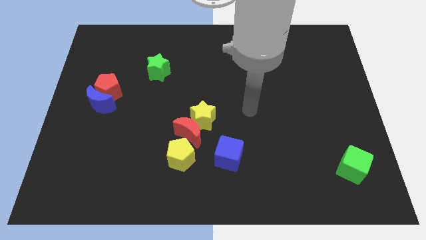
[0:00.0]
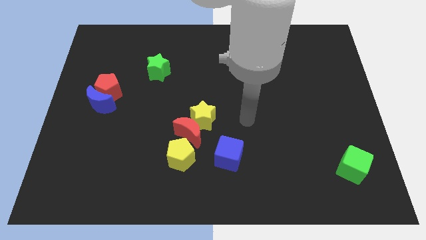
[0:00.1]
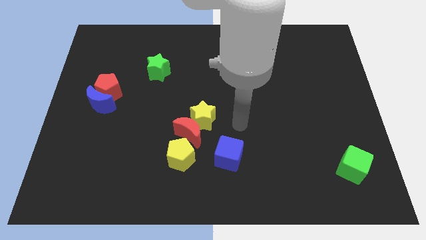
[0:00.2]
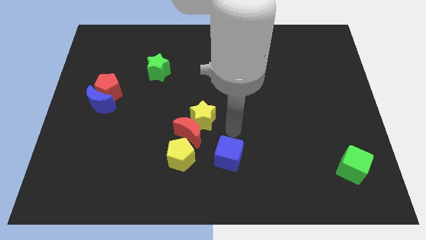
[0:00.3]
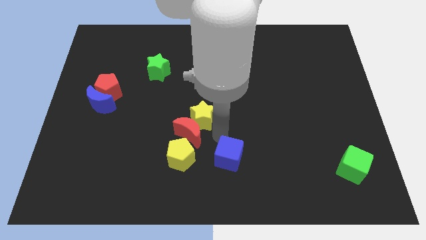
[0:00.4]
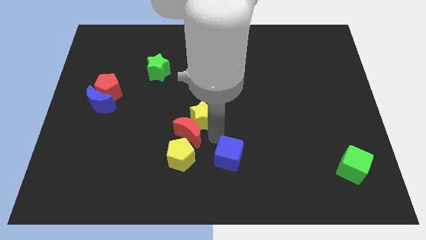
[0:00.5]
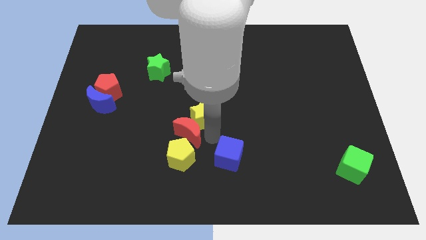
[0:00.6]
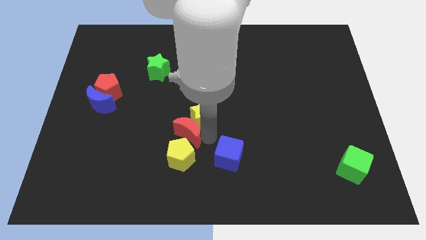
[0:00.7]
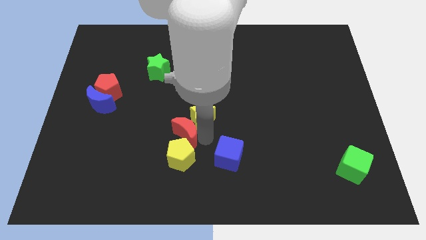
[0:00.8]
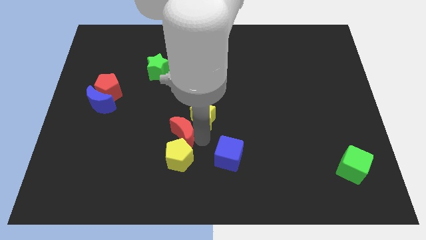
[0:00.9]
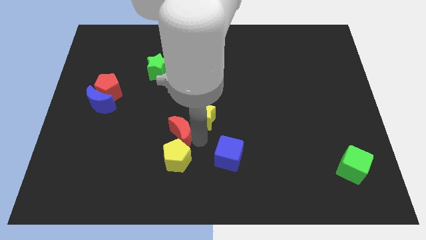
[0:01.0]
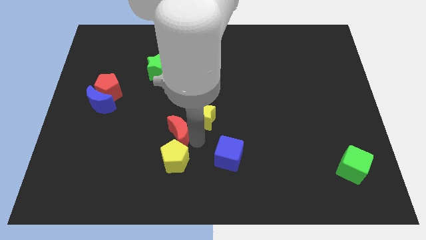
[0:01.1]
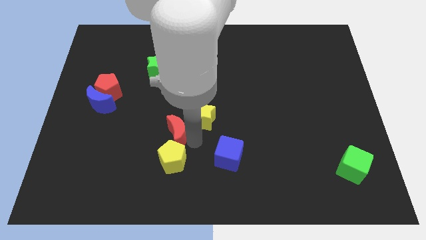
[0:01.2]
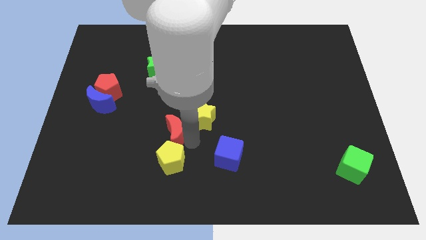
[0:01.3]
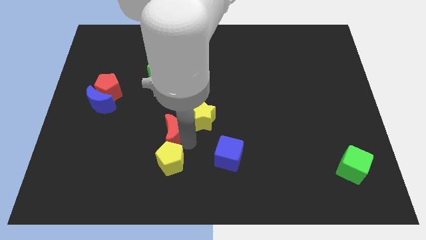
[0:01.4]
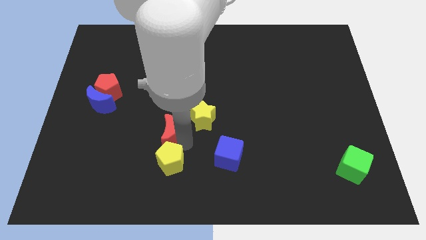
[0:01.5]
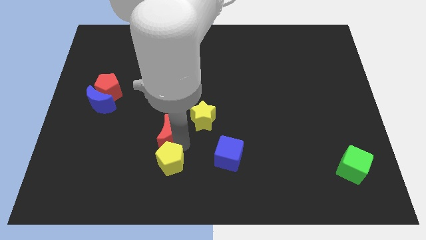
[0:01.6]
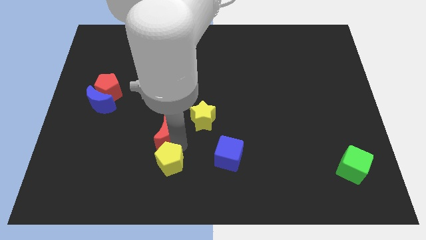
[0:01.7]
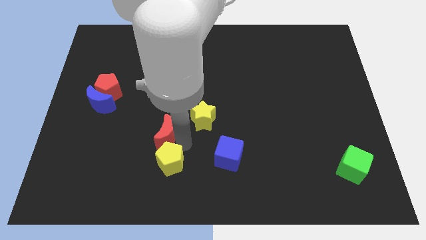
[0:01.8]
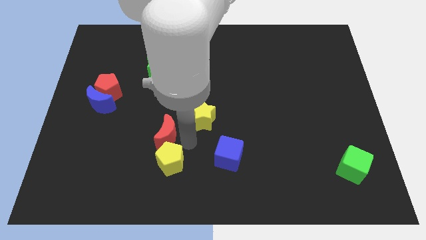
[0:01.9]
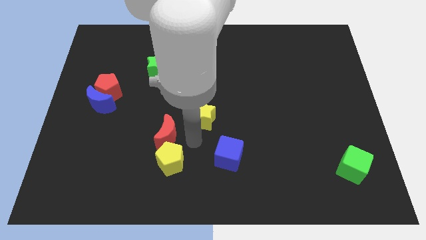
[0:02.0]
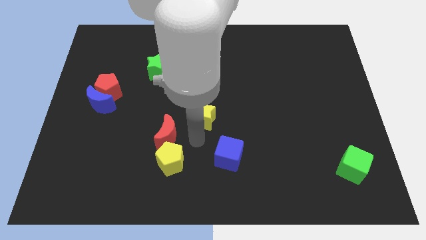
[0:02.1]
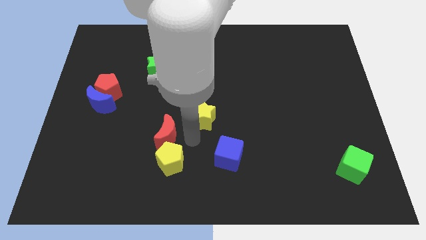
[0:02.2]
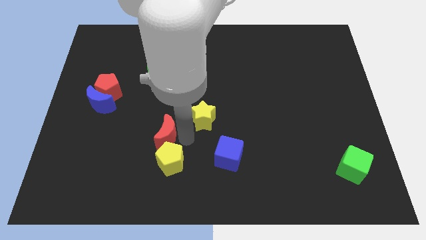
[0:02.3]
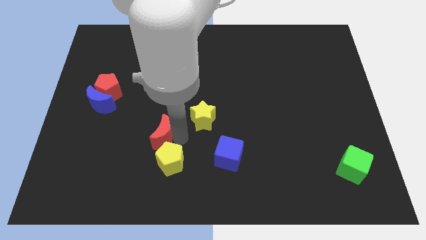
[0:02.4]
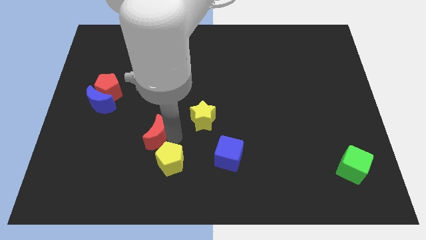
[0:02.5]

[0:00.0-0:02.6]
slide the red moon a little bit to the left

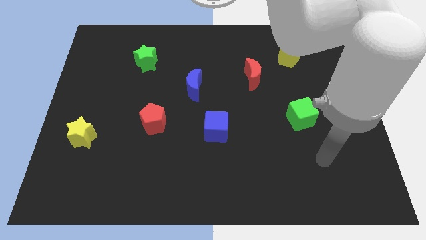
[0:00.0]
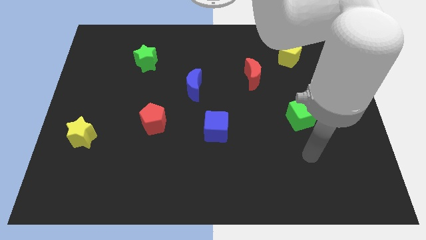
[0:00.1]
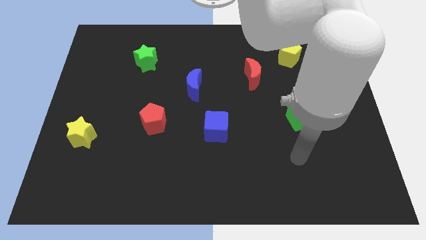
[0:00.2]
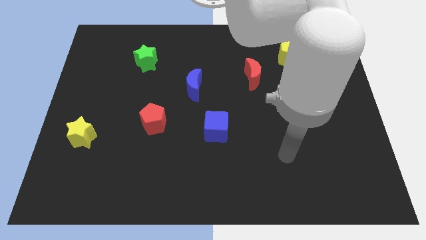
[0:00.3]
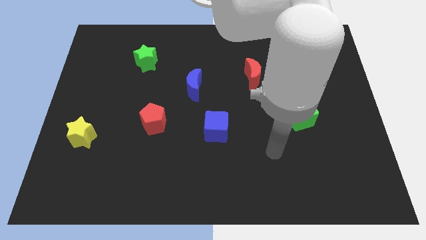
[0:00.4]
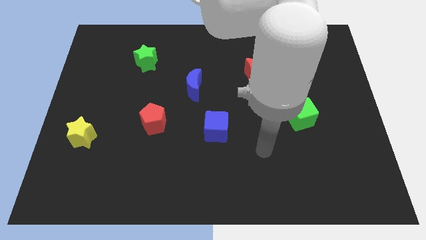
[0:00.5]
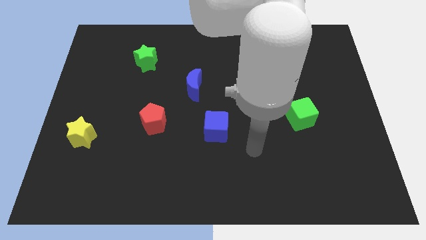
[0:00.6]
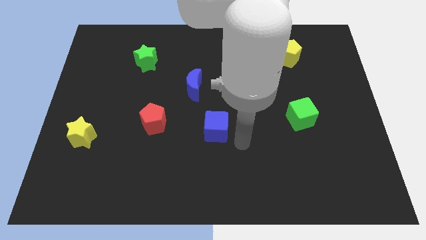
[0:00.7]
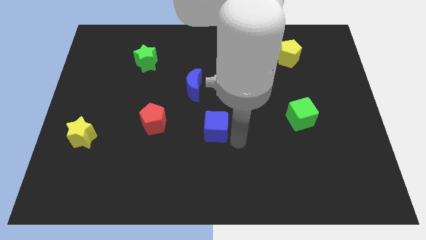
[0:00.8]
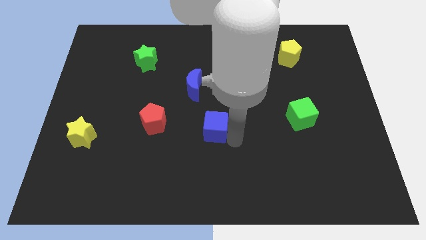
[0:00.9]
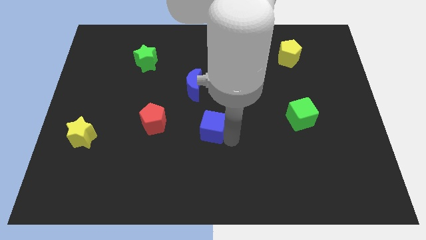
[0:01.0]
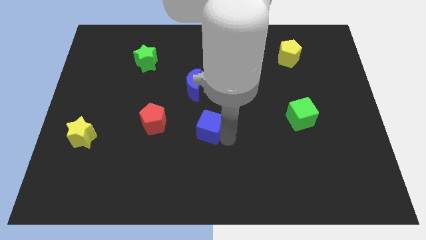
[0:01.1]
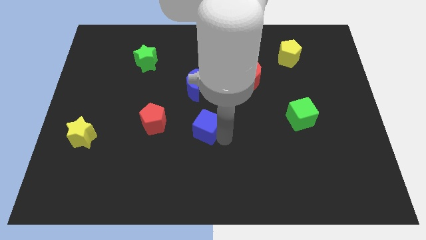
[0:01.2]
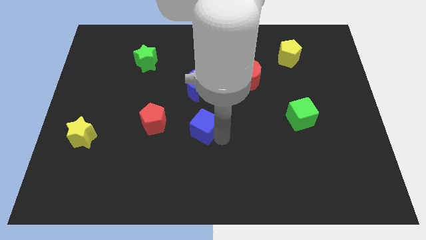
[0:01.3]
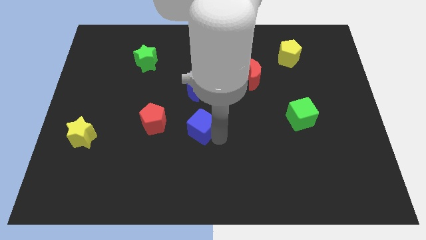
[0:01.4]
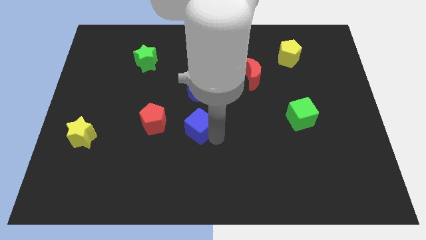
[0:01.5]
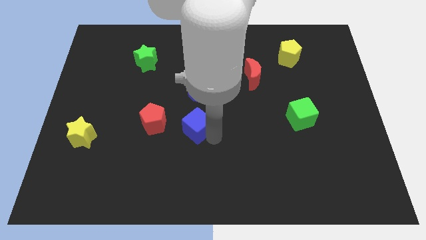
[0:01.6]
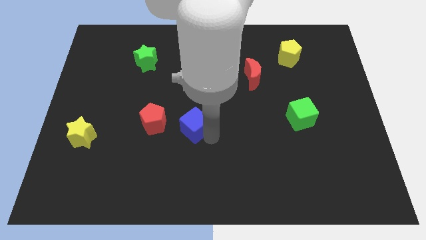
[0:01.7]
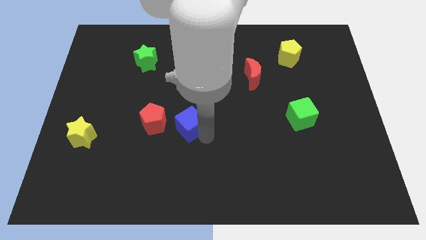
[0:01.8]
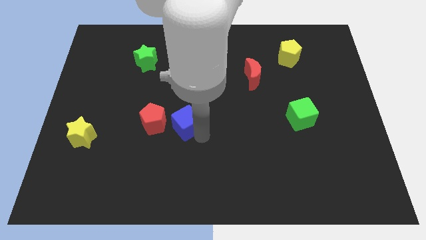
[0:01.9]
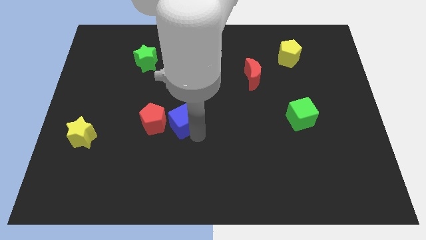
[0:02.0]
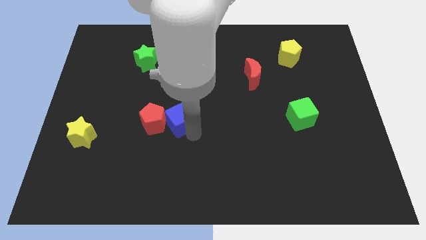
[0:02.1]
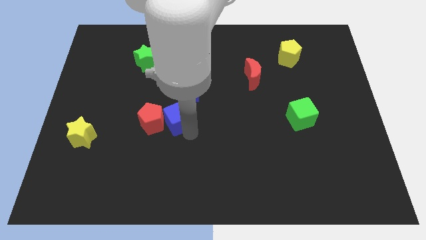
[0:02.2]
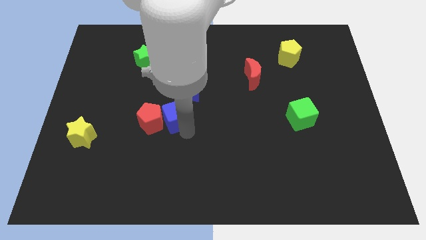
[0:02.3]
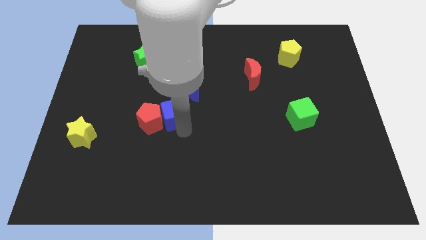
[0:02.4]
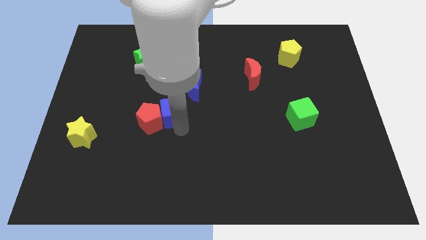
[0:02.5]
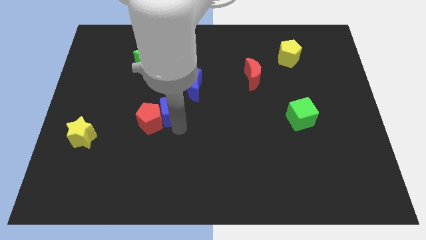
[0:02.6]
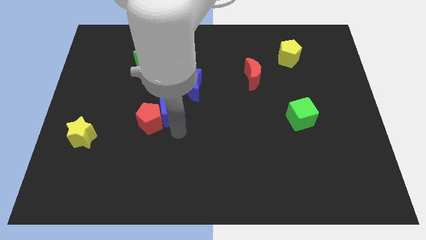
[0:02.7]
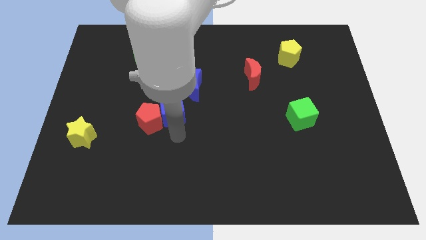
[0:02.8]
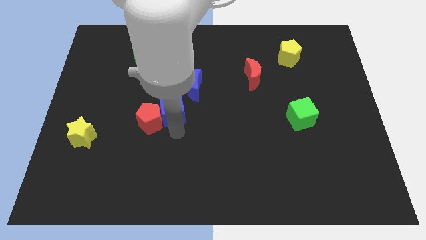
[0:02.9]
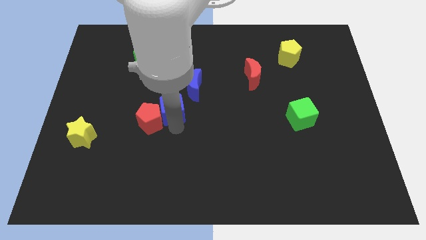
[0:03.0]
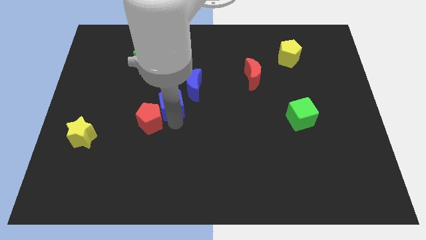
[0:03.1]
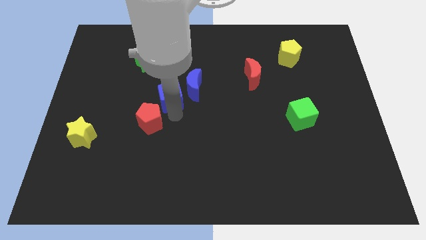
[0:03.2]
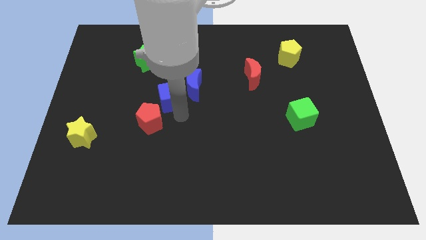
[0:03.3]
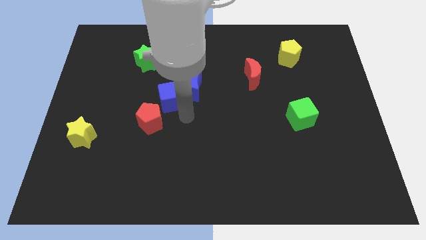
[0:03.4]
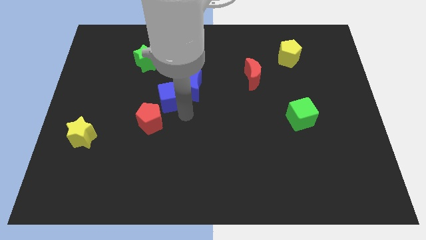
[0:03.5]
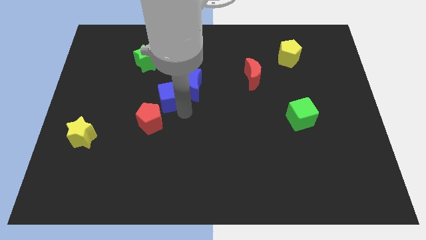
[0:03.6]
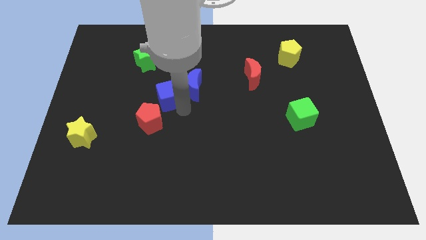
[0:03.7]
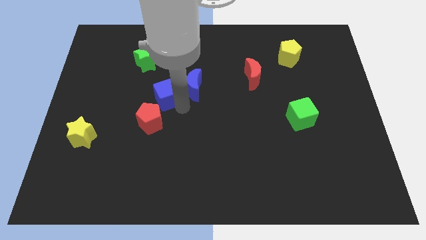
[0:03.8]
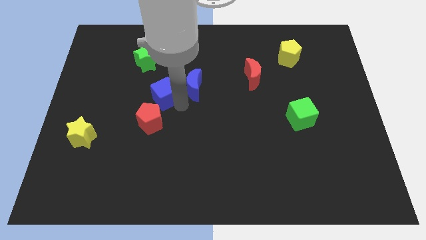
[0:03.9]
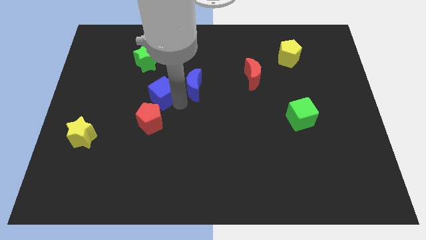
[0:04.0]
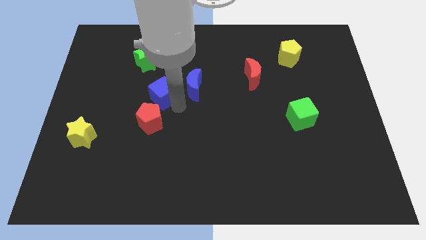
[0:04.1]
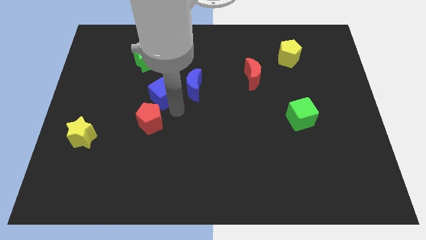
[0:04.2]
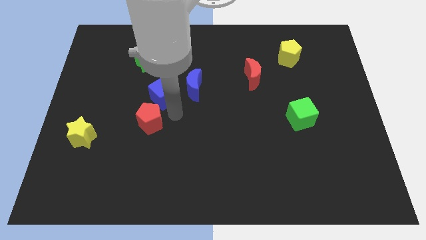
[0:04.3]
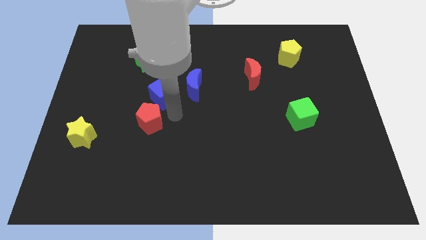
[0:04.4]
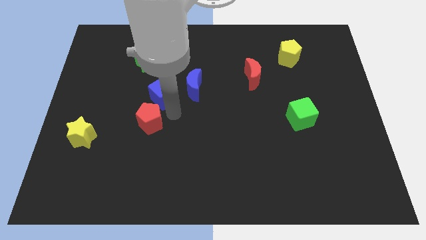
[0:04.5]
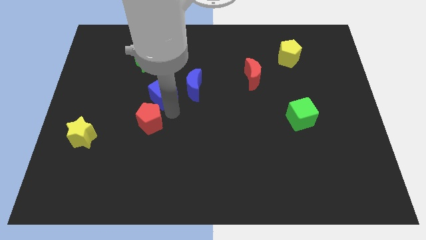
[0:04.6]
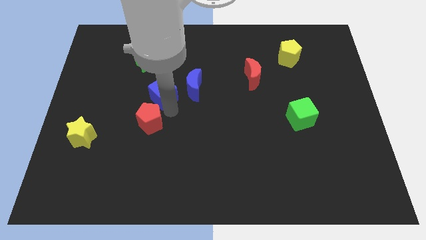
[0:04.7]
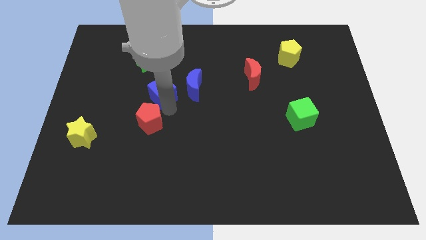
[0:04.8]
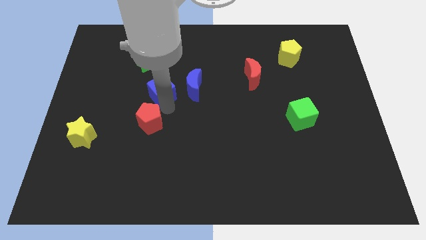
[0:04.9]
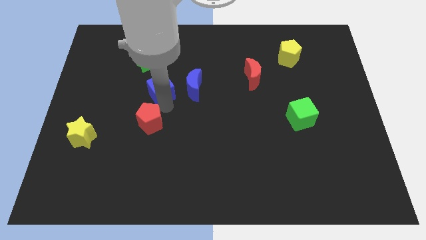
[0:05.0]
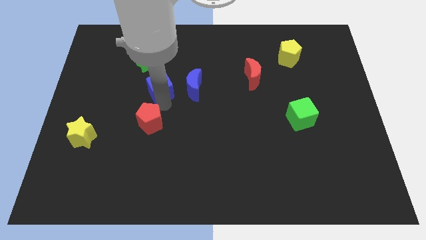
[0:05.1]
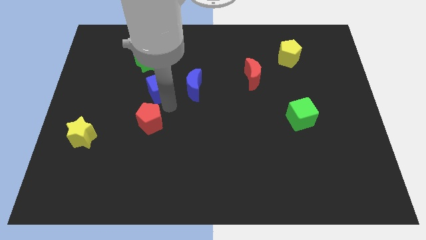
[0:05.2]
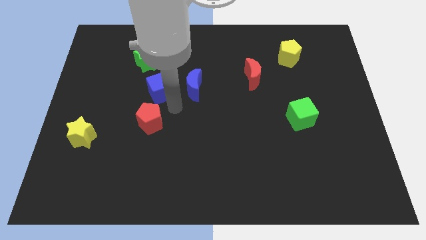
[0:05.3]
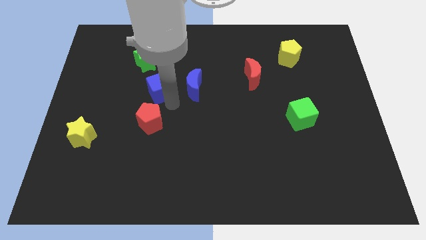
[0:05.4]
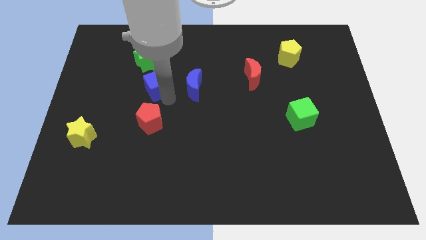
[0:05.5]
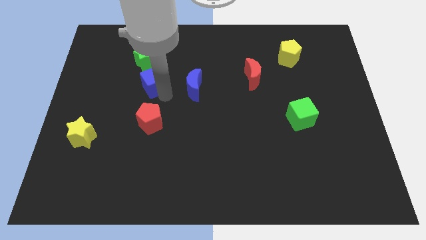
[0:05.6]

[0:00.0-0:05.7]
move the blue cube up and to the left diagonally
